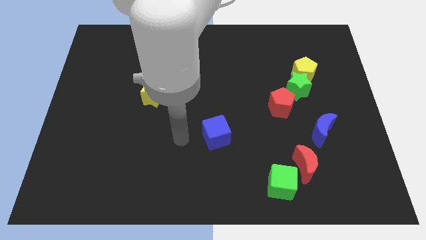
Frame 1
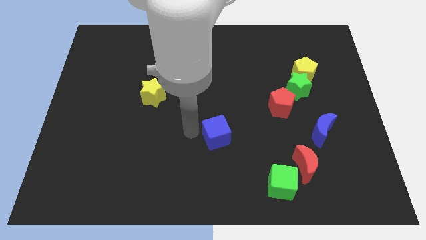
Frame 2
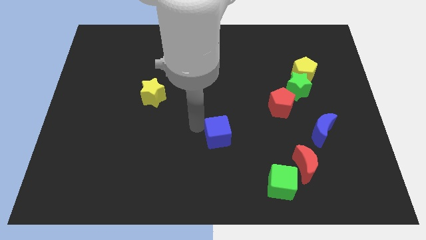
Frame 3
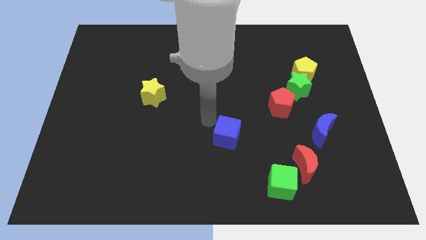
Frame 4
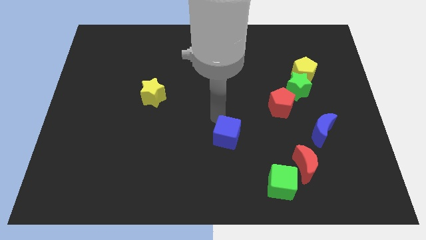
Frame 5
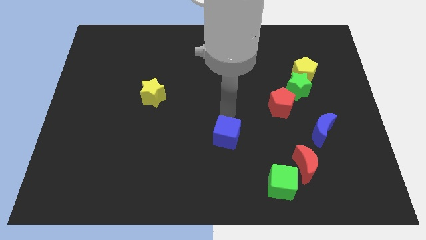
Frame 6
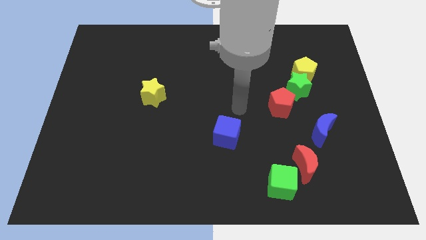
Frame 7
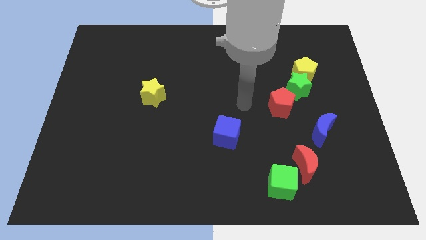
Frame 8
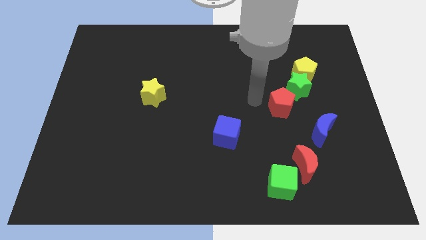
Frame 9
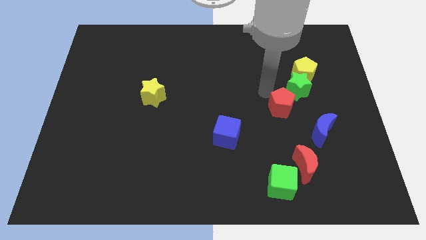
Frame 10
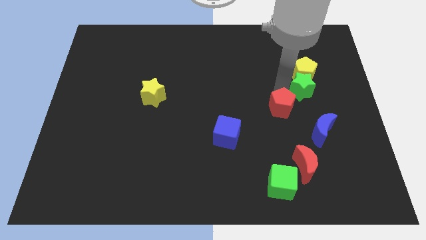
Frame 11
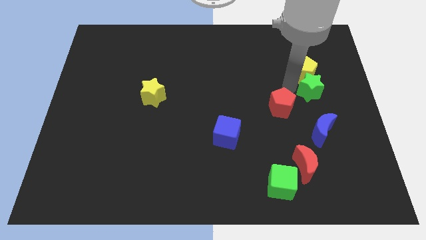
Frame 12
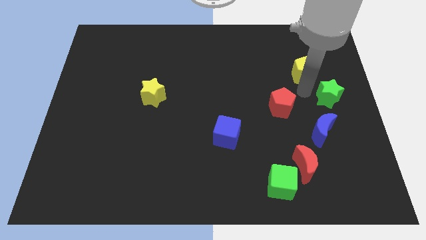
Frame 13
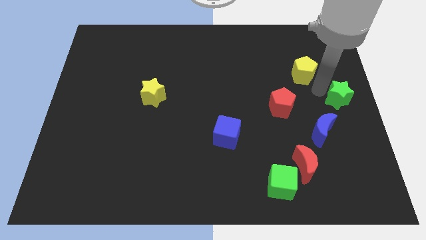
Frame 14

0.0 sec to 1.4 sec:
move the yellow pentagon away from the green star

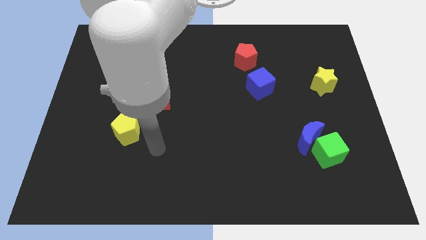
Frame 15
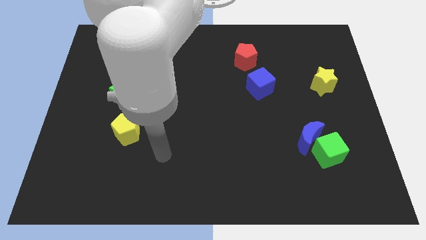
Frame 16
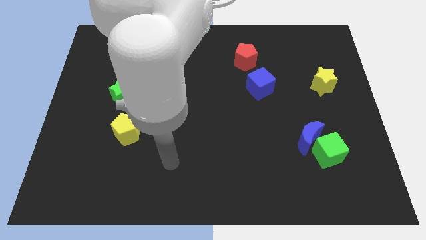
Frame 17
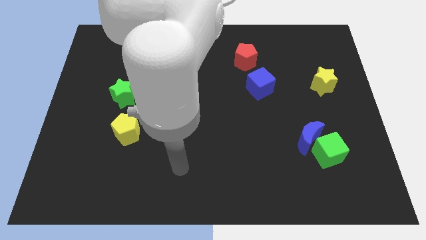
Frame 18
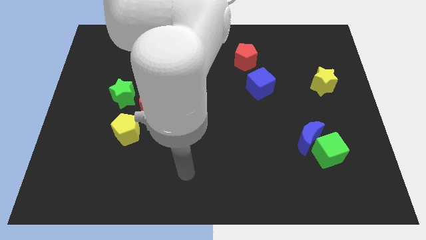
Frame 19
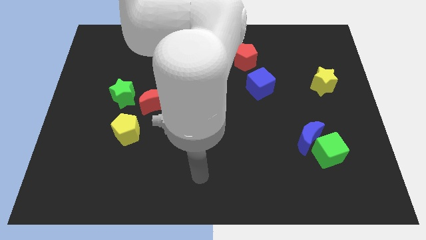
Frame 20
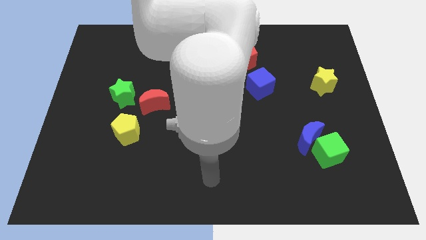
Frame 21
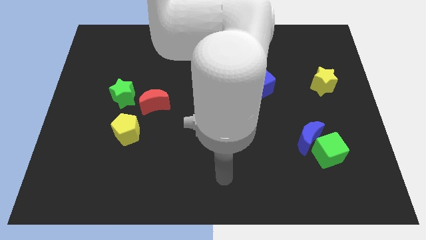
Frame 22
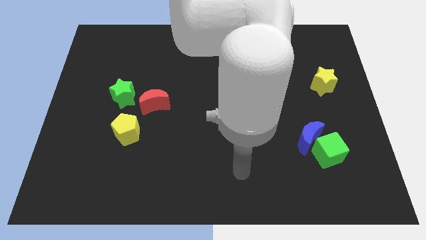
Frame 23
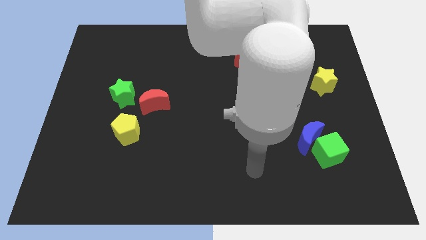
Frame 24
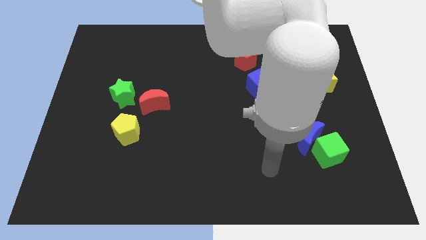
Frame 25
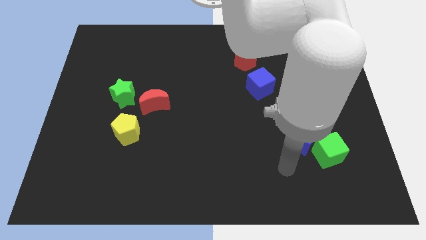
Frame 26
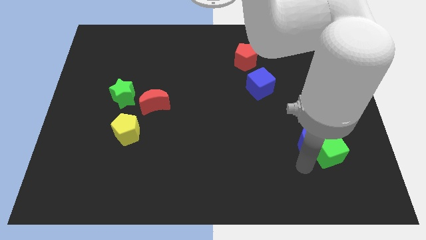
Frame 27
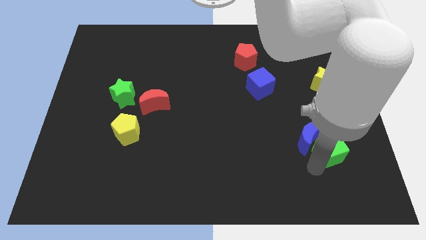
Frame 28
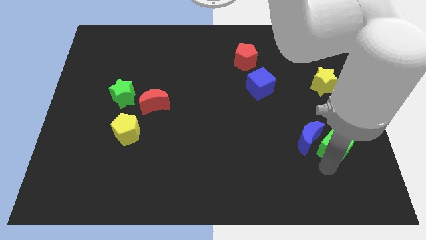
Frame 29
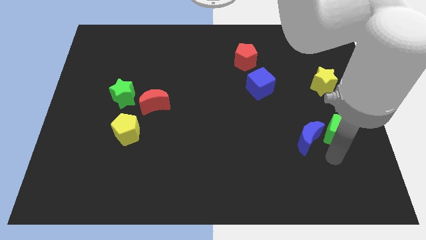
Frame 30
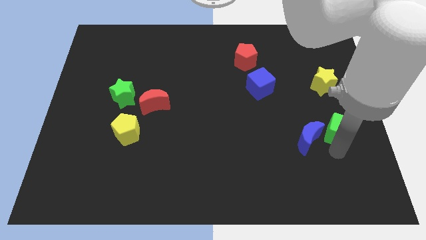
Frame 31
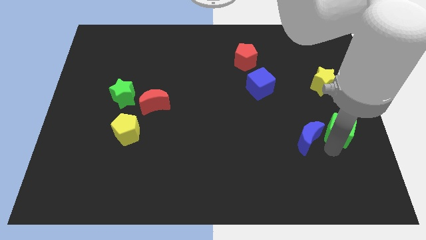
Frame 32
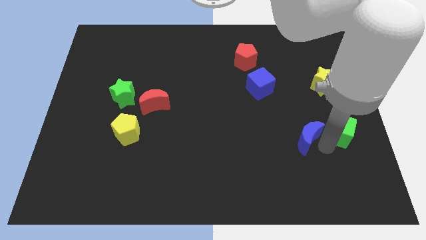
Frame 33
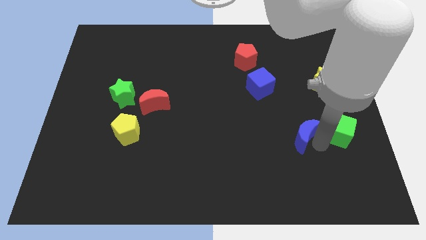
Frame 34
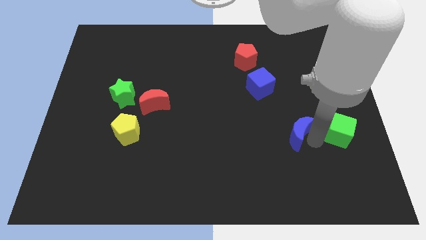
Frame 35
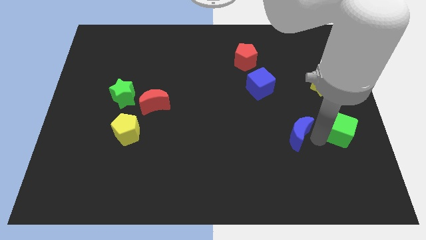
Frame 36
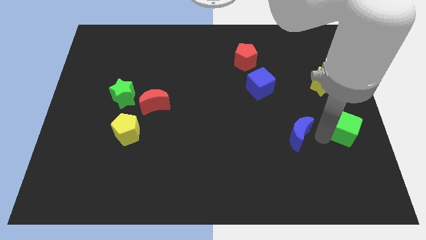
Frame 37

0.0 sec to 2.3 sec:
move the blue moon away from the green cube

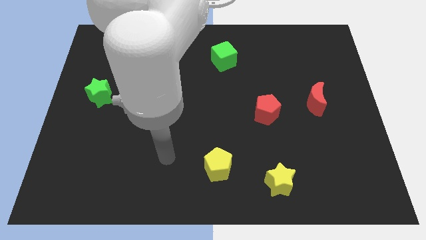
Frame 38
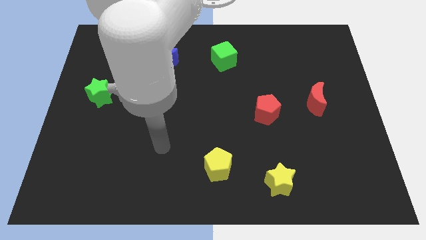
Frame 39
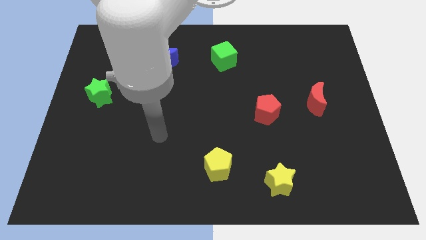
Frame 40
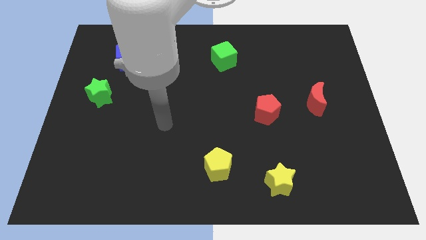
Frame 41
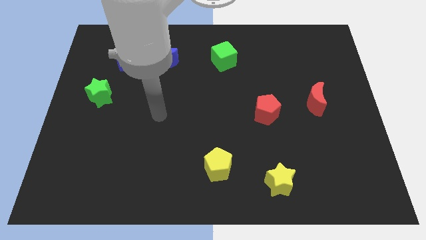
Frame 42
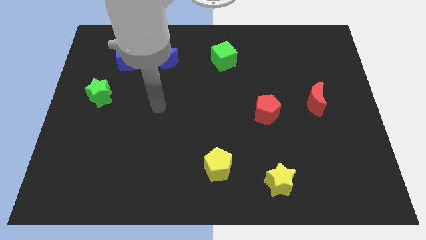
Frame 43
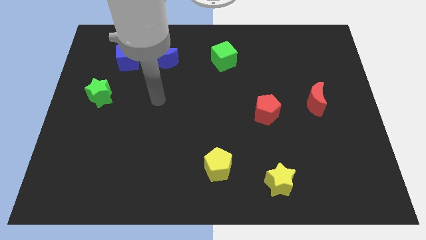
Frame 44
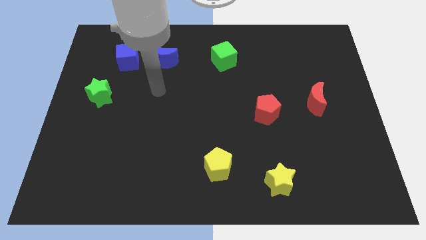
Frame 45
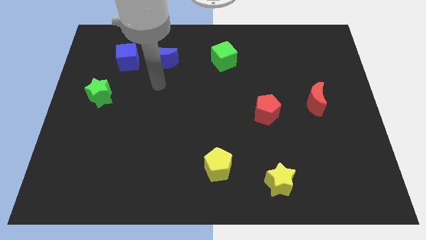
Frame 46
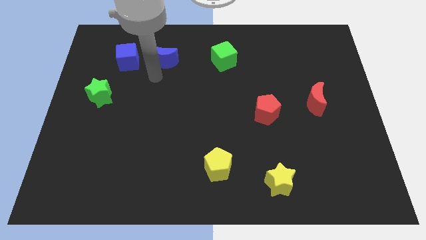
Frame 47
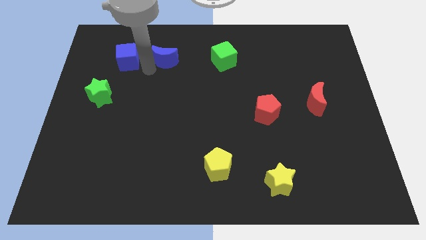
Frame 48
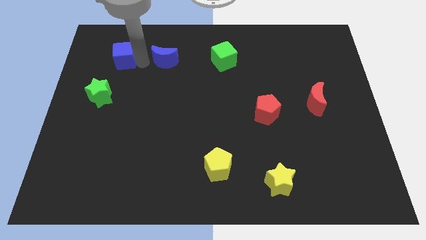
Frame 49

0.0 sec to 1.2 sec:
pull the blue moon apart from the blue cube

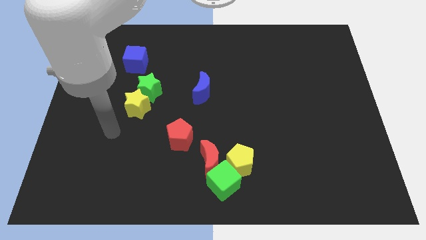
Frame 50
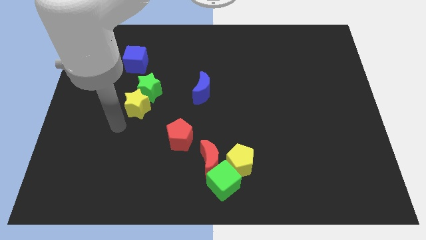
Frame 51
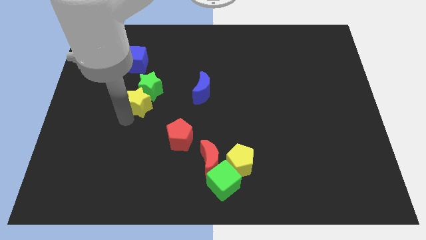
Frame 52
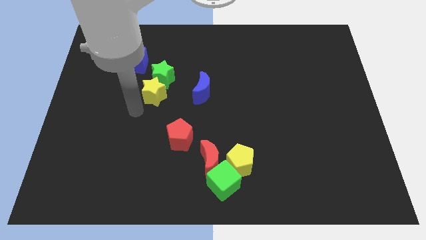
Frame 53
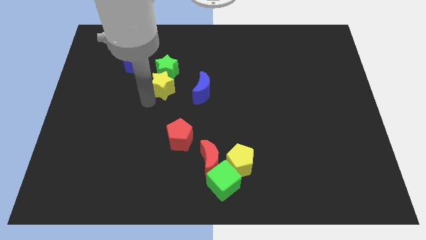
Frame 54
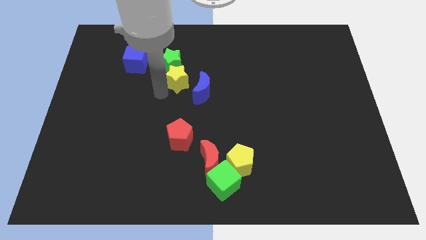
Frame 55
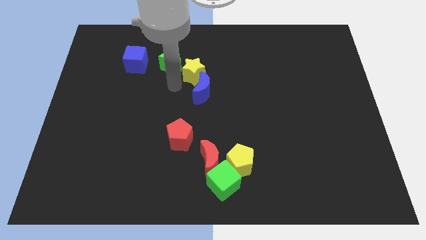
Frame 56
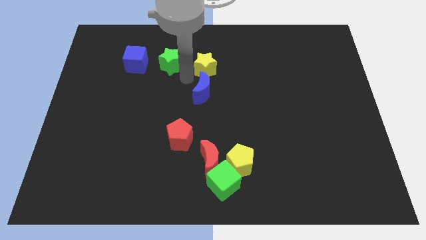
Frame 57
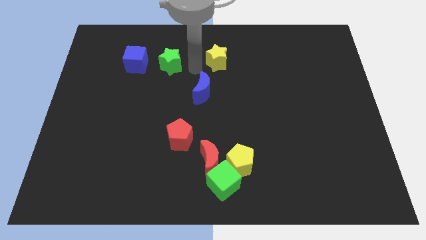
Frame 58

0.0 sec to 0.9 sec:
pull the green star apart from the yellow star

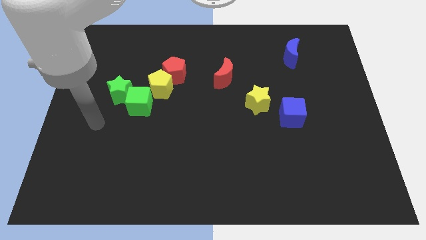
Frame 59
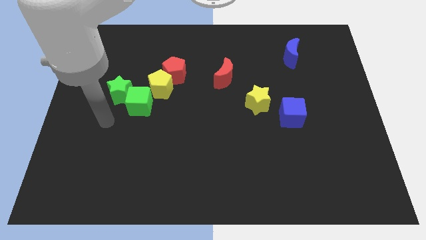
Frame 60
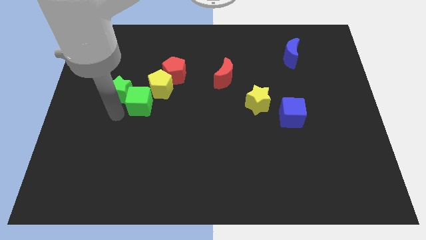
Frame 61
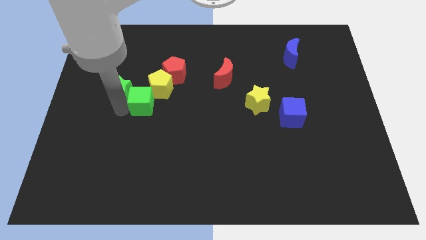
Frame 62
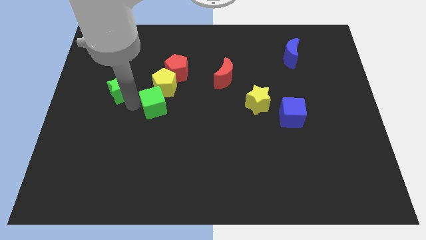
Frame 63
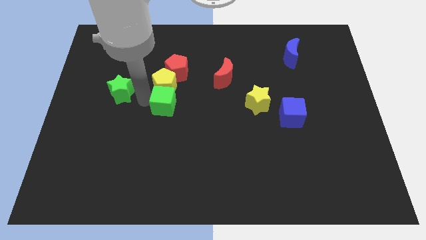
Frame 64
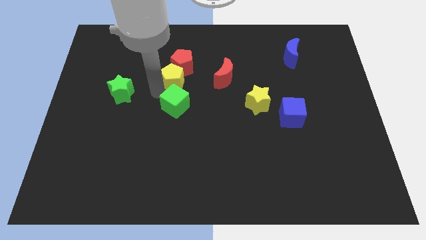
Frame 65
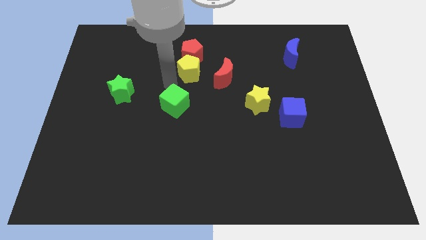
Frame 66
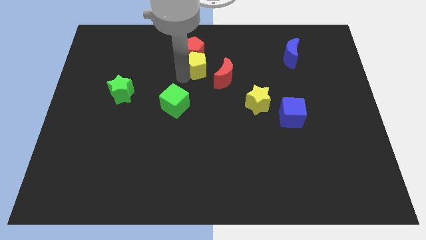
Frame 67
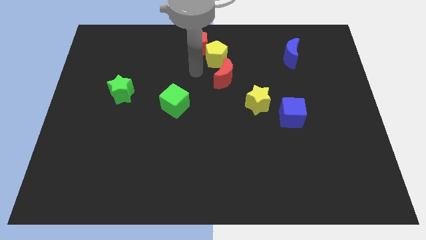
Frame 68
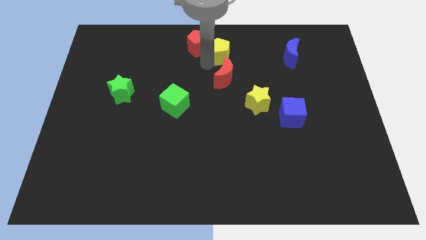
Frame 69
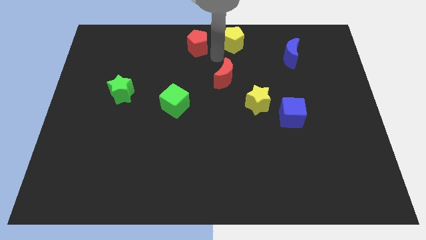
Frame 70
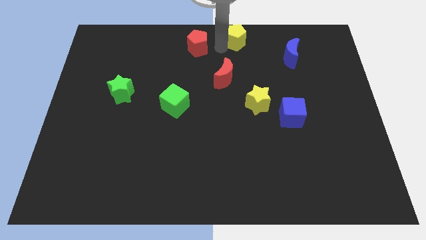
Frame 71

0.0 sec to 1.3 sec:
pull the red pentagon apart from the yellow pentagon

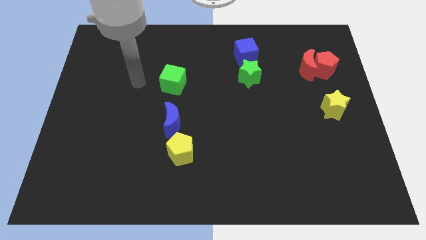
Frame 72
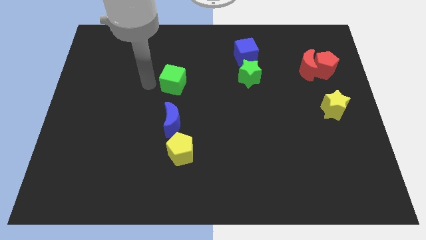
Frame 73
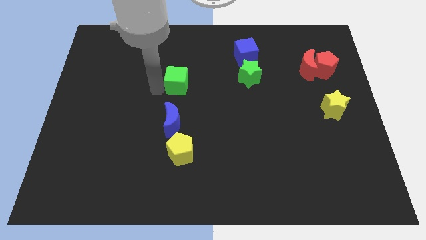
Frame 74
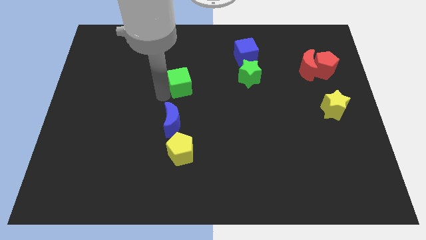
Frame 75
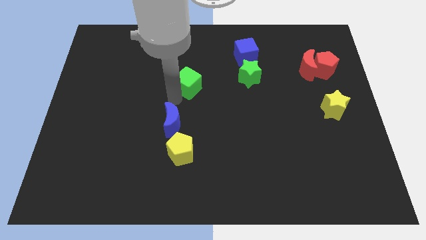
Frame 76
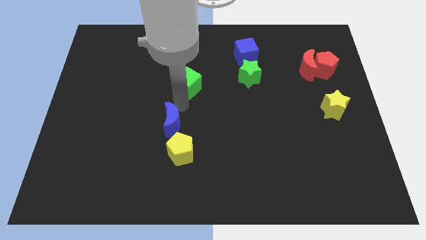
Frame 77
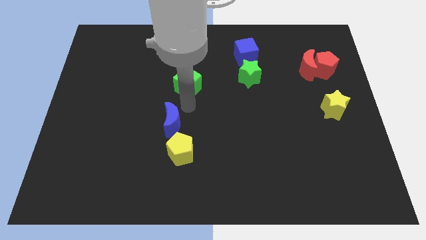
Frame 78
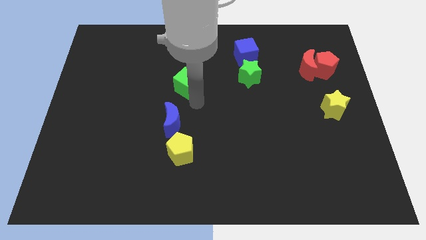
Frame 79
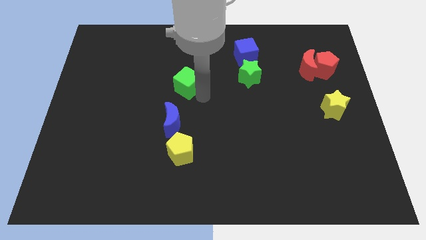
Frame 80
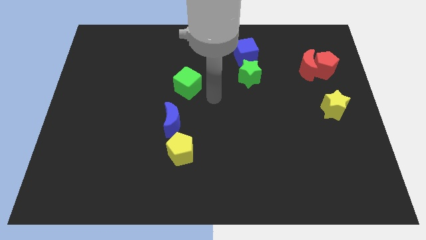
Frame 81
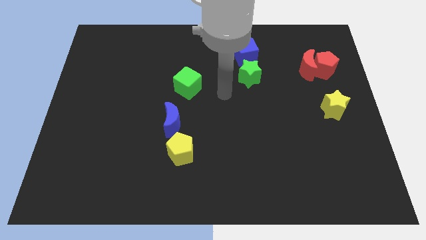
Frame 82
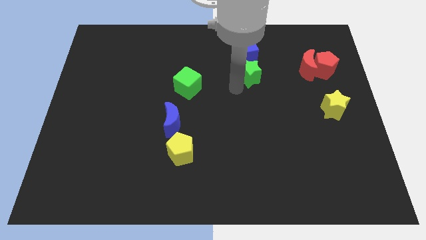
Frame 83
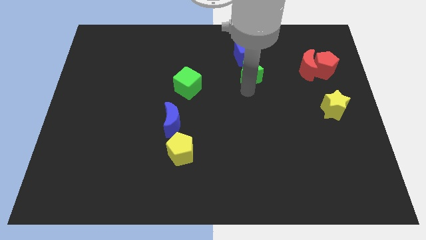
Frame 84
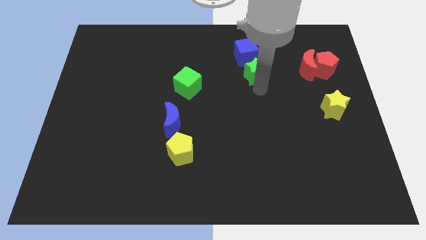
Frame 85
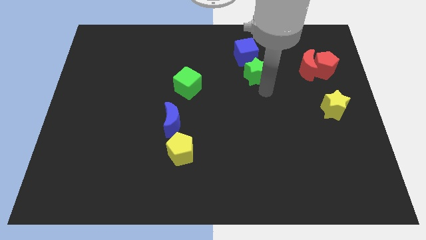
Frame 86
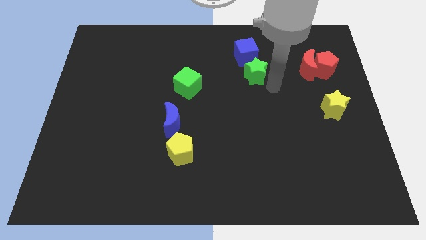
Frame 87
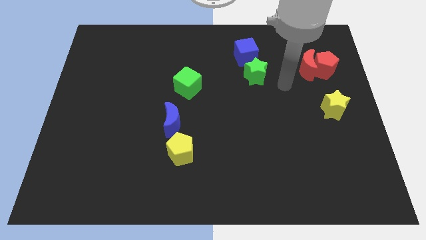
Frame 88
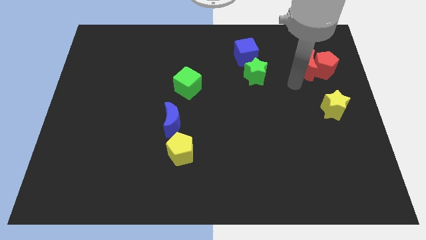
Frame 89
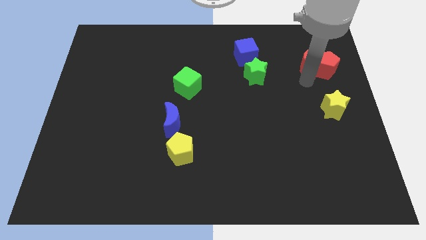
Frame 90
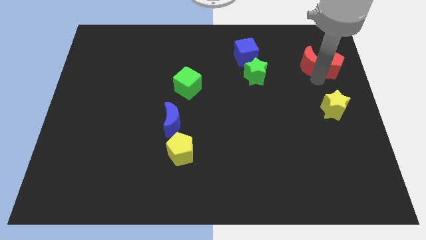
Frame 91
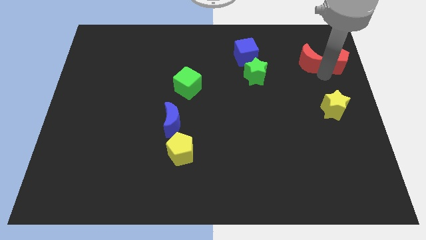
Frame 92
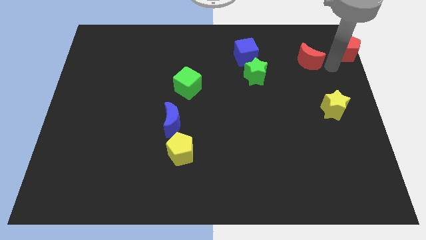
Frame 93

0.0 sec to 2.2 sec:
pull the red moon apart from the red pentagon
